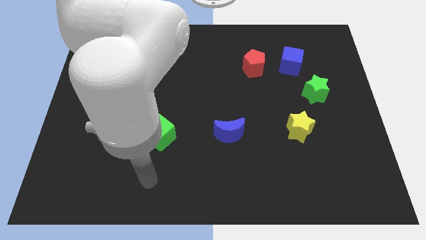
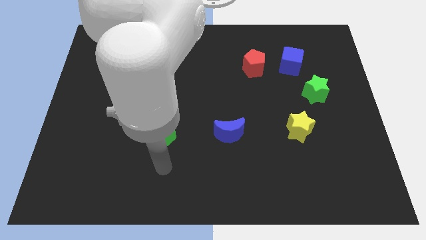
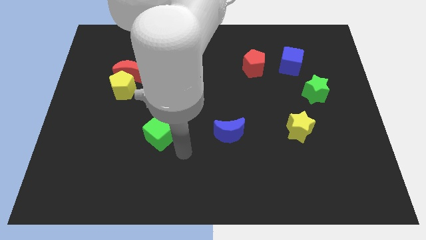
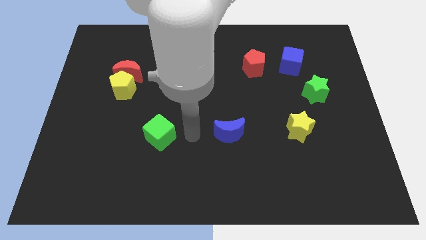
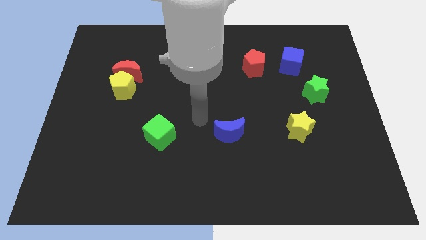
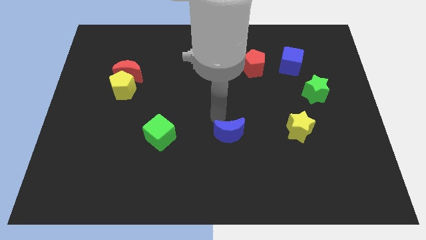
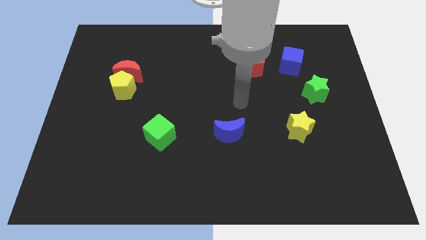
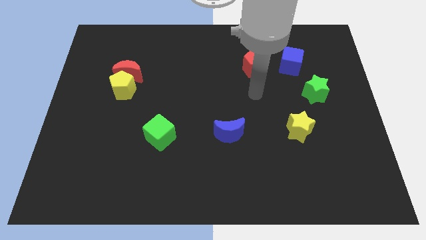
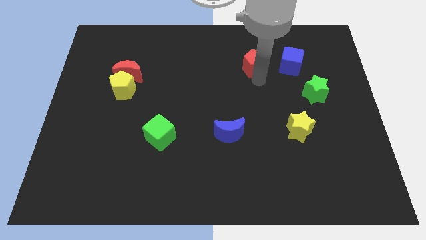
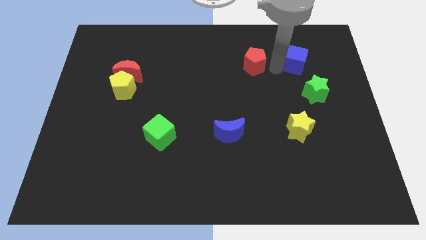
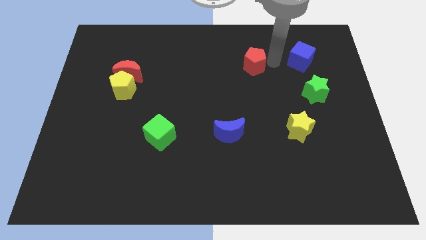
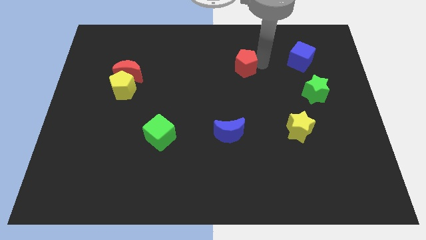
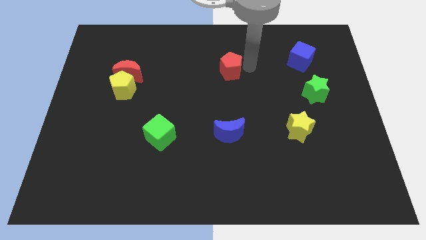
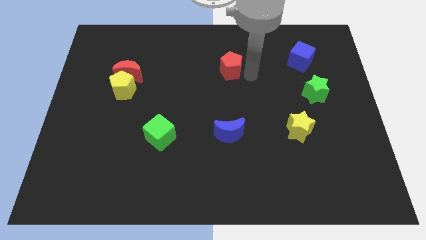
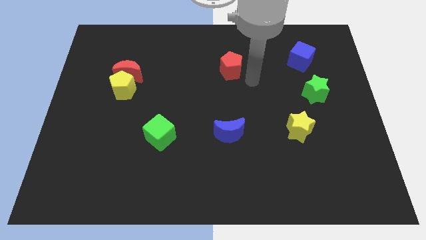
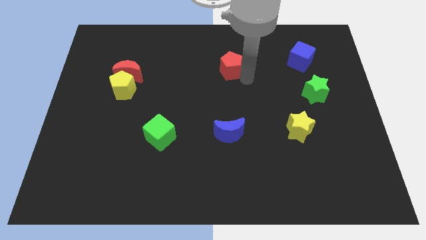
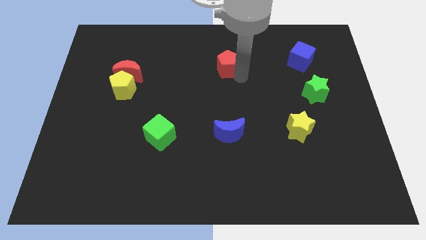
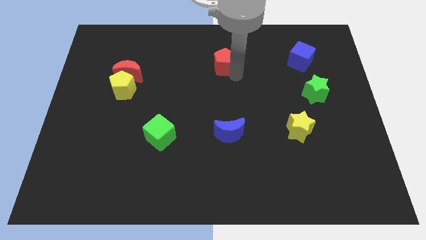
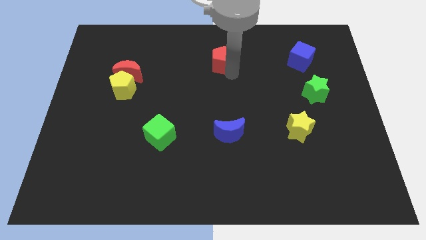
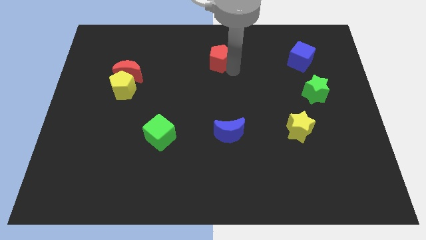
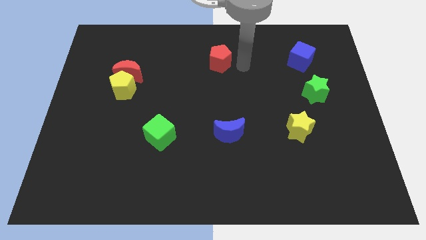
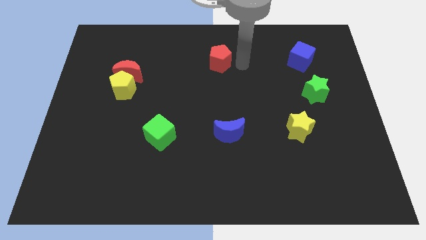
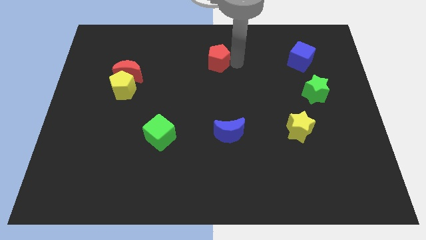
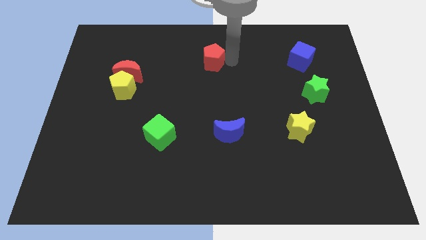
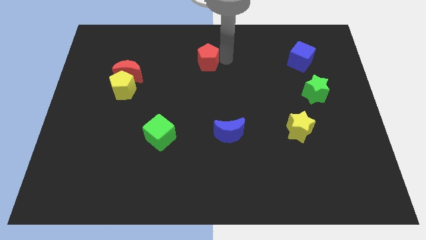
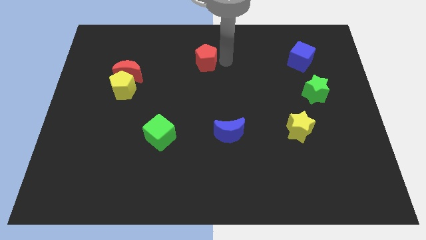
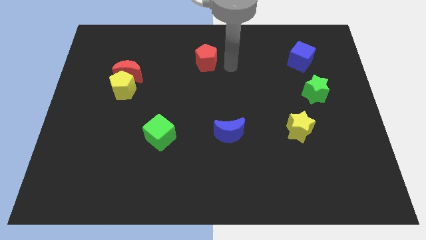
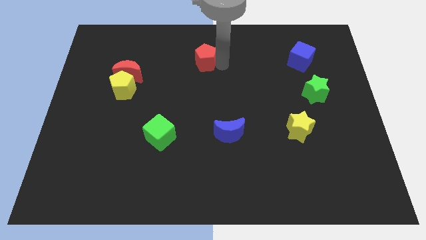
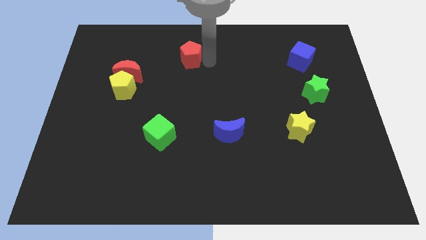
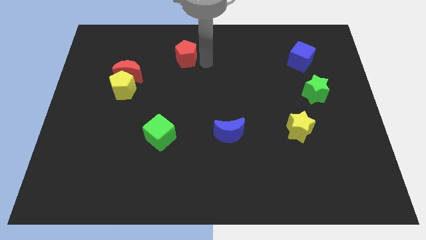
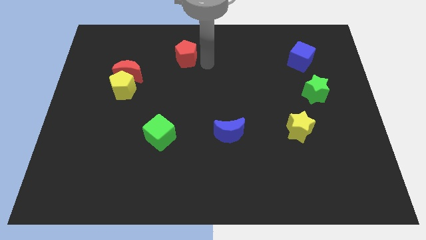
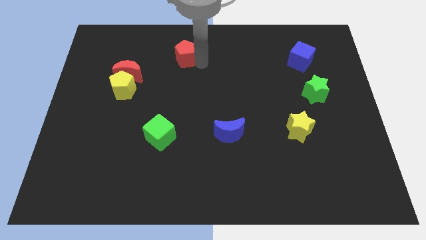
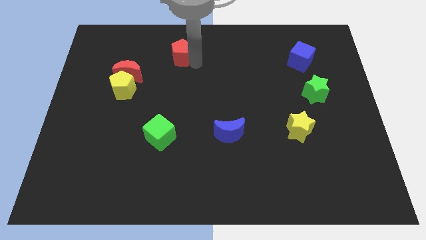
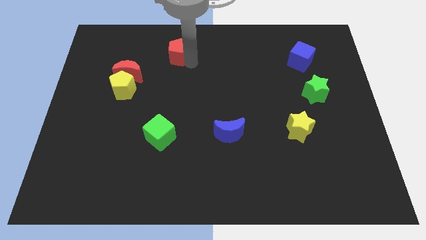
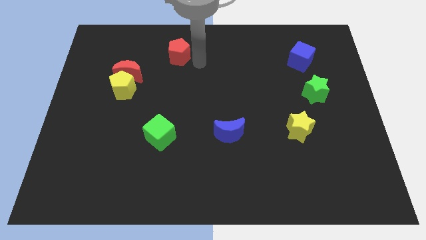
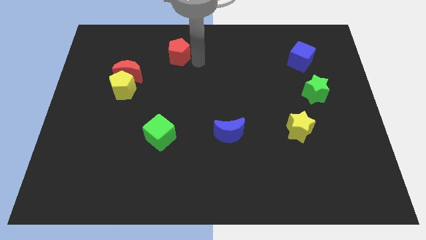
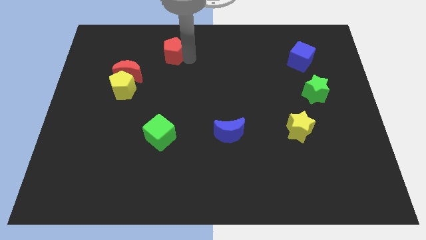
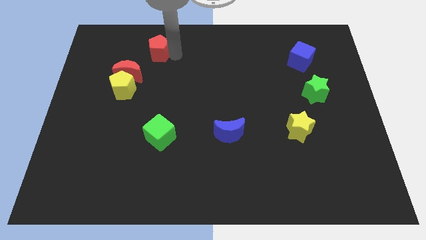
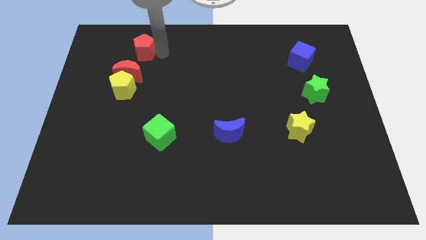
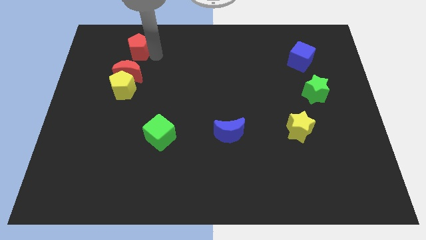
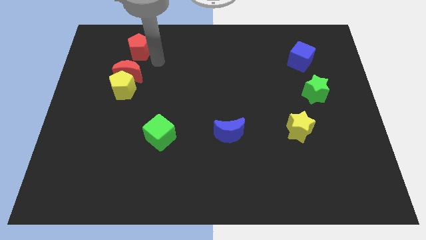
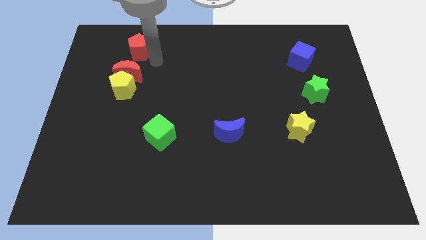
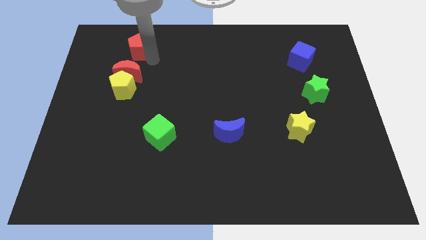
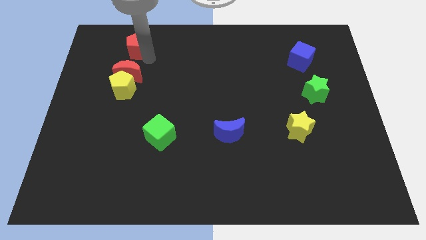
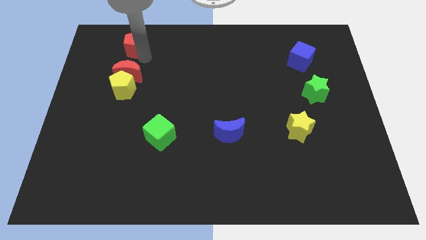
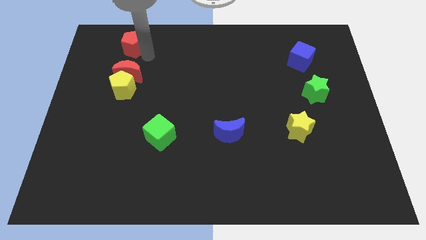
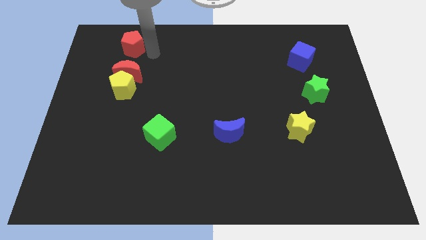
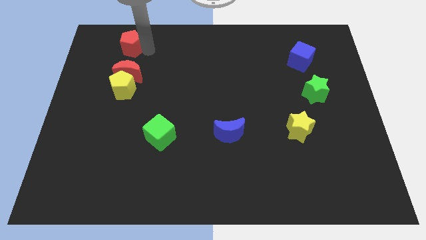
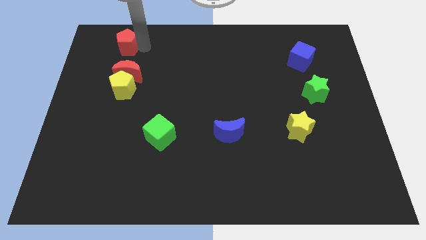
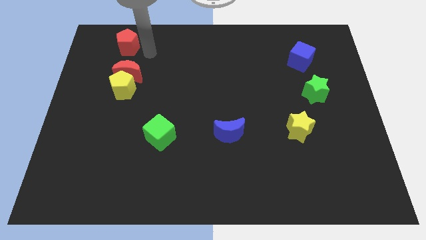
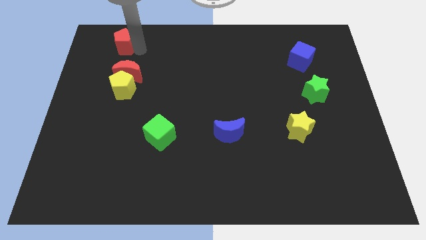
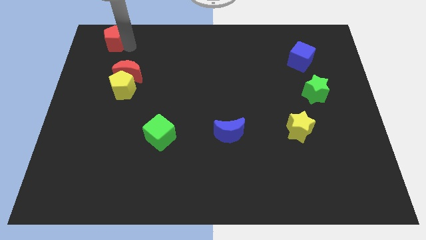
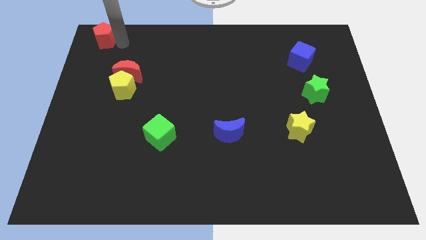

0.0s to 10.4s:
push the red pentagon to the top left corner

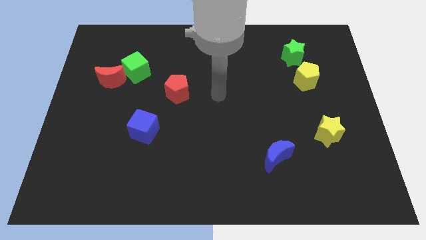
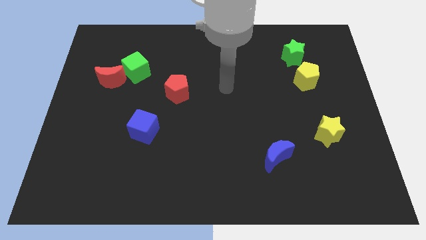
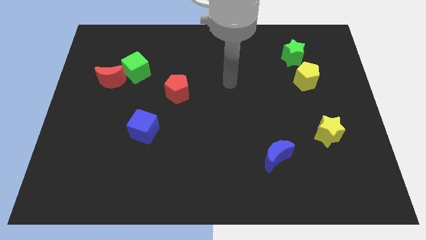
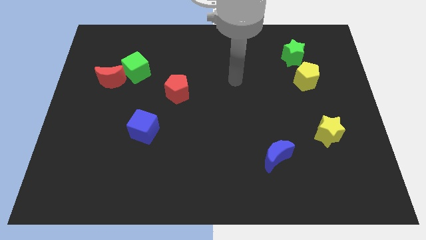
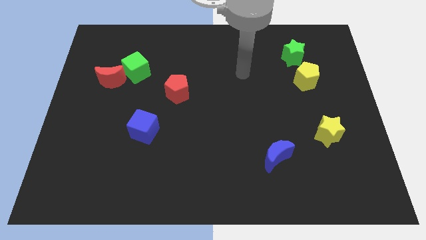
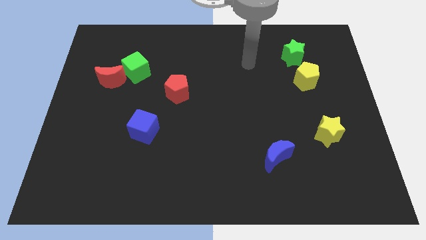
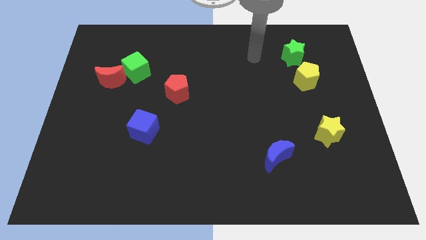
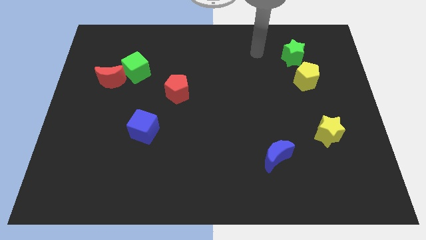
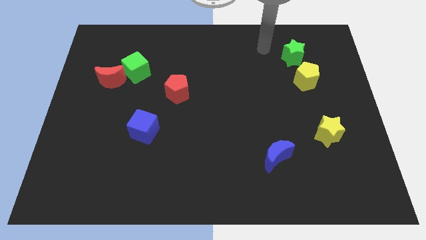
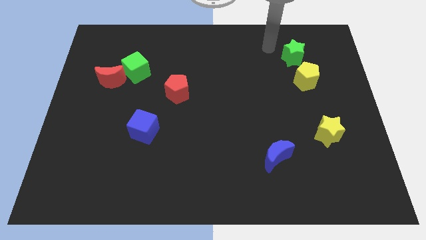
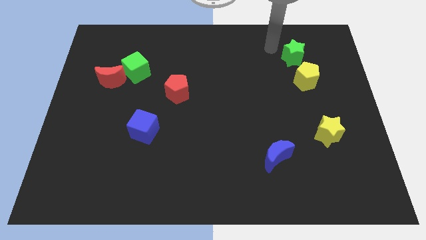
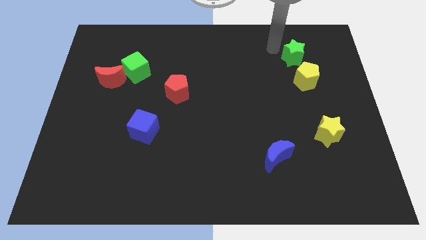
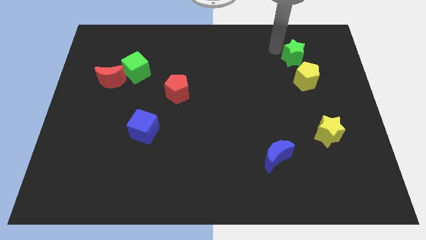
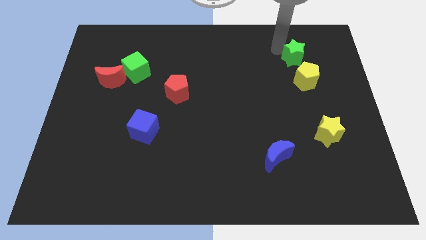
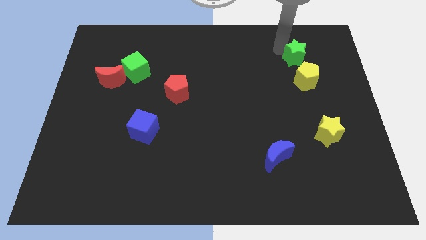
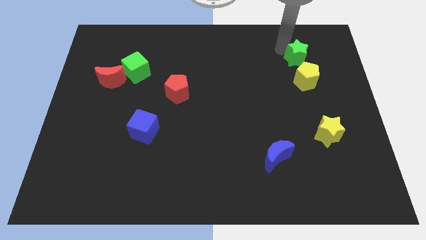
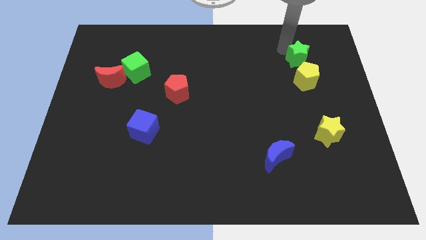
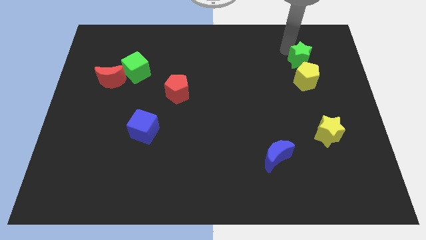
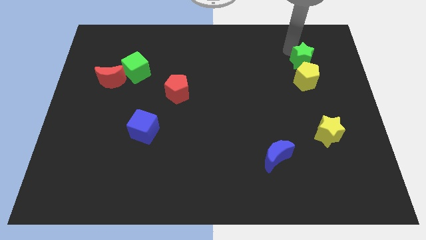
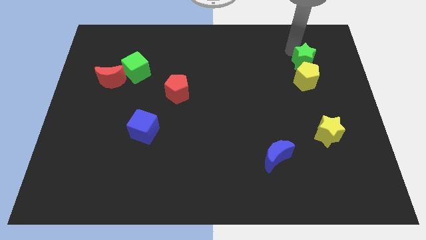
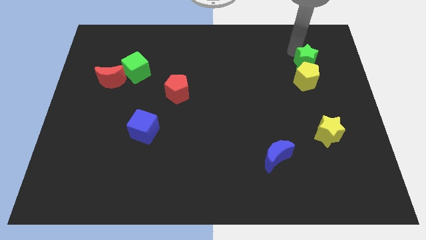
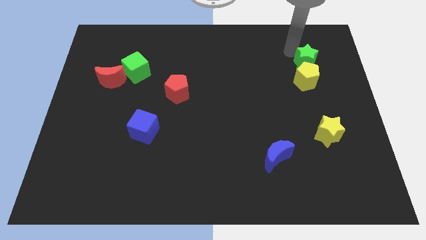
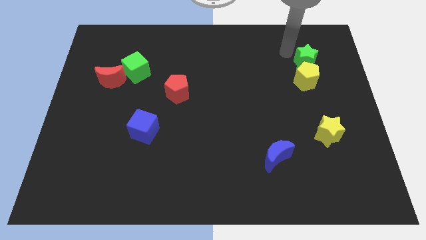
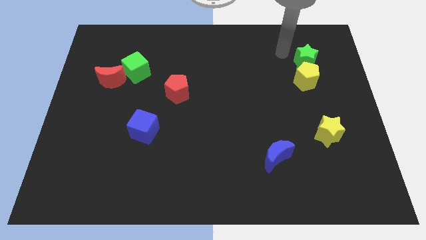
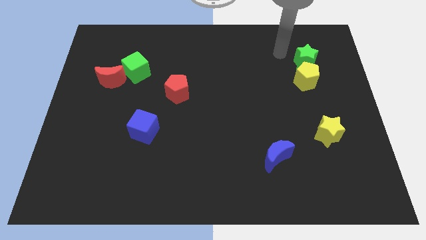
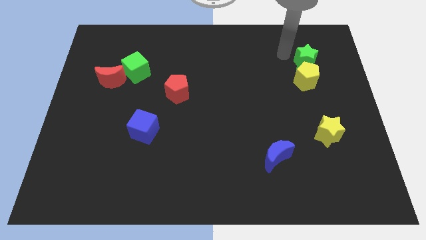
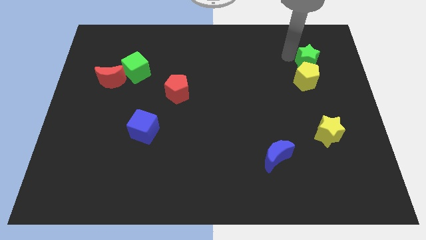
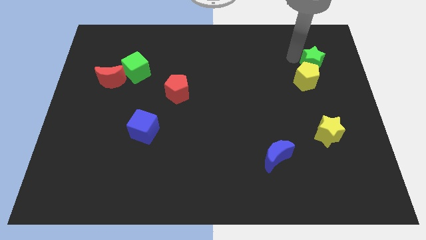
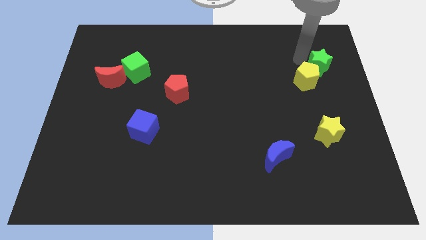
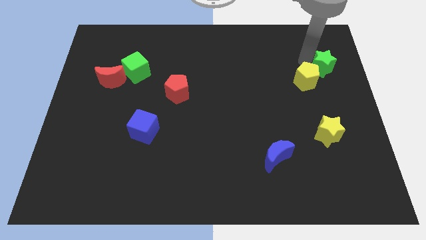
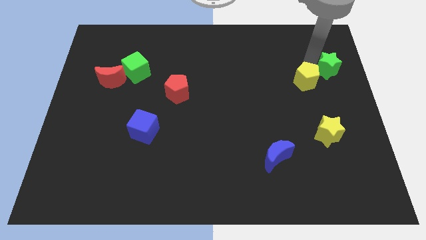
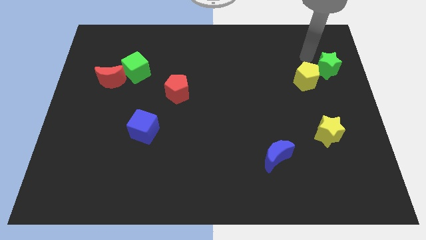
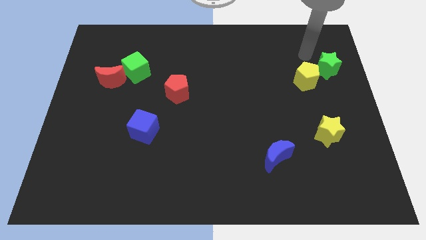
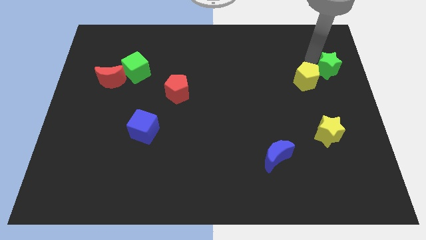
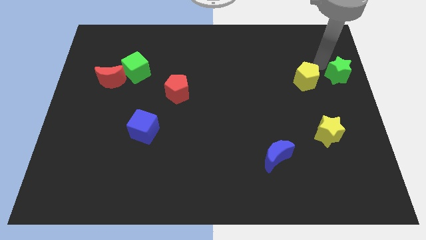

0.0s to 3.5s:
push the green star to the right side of the board
